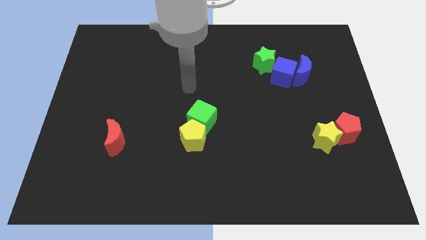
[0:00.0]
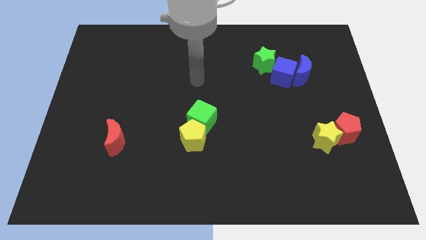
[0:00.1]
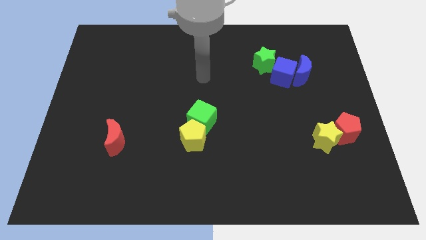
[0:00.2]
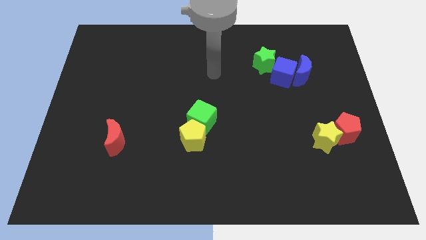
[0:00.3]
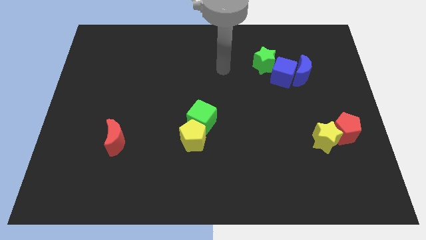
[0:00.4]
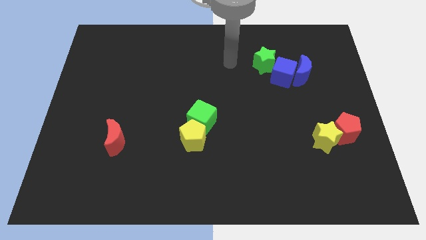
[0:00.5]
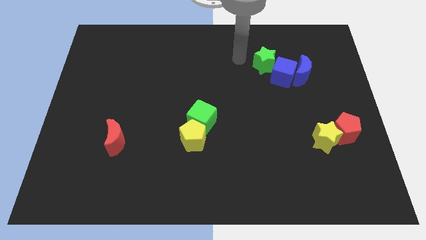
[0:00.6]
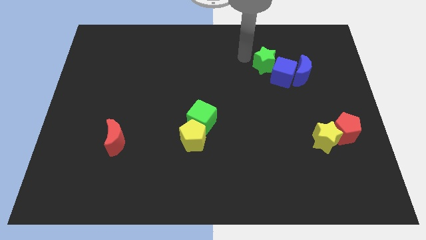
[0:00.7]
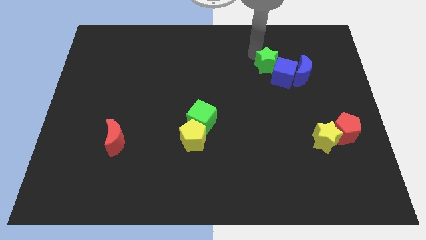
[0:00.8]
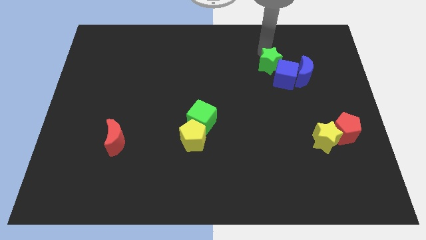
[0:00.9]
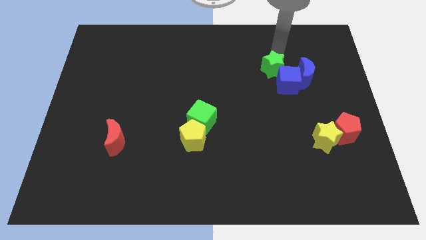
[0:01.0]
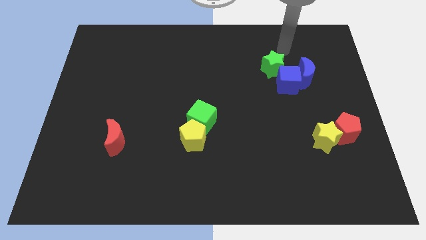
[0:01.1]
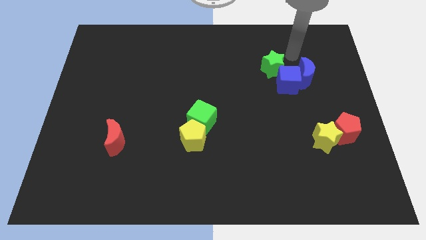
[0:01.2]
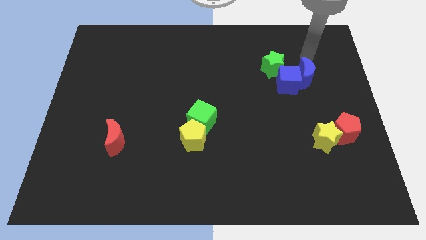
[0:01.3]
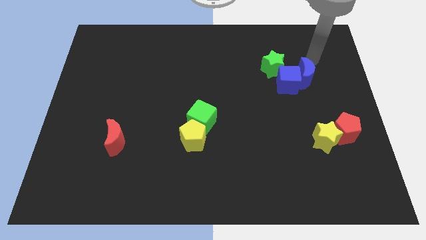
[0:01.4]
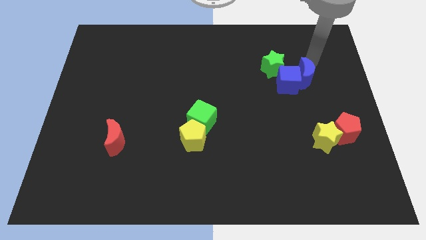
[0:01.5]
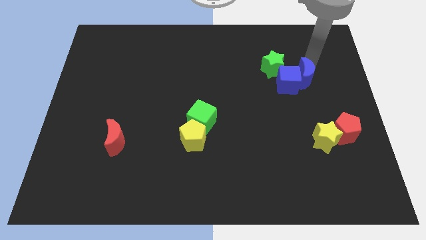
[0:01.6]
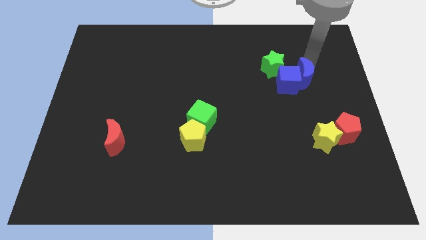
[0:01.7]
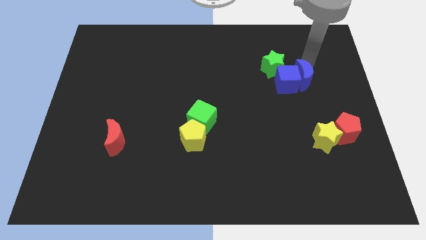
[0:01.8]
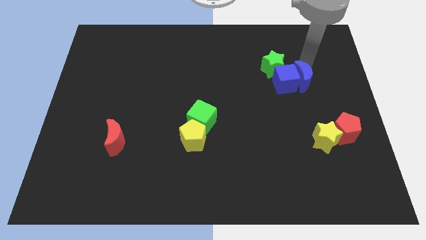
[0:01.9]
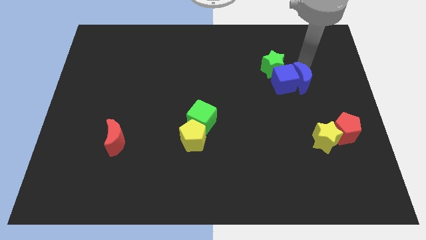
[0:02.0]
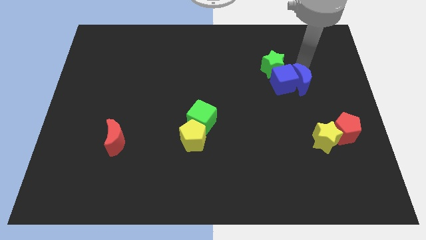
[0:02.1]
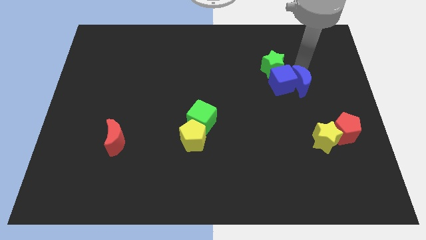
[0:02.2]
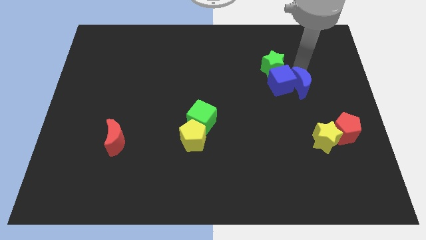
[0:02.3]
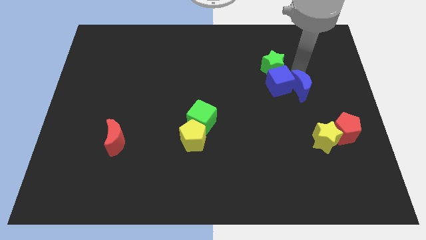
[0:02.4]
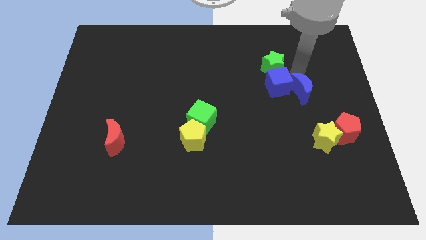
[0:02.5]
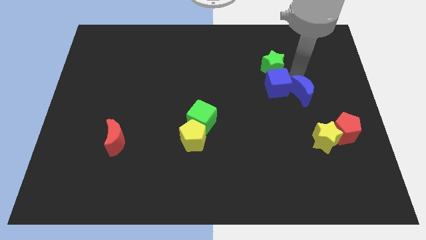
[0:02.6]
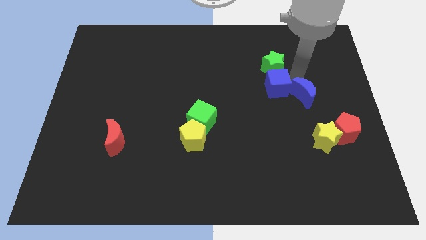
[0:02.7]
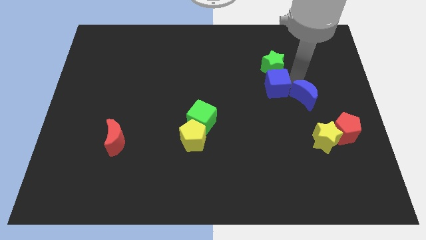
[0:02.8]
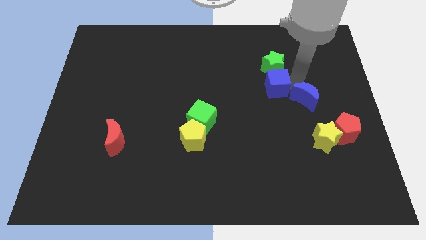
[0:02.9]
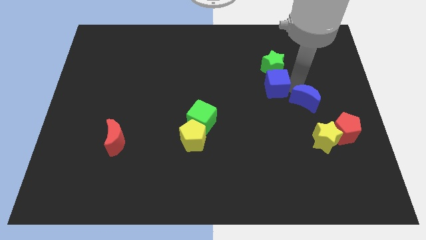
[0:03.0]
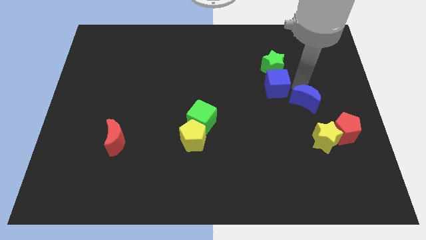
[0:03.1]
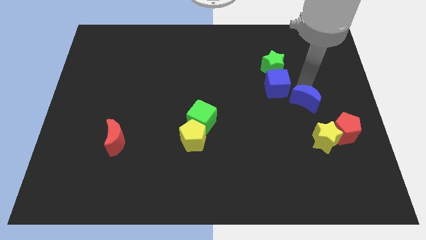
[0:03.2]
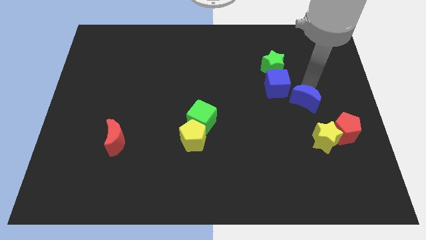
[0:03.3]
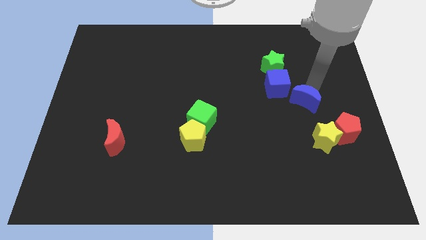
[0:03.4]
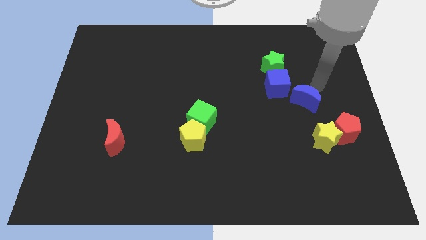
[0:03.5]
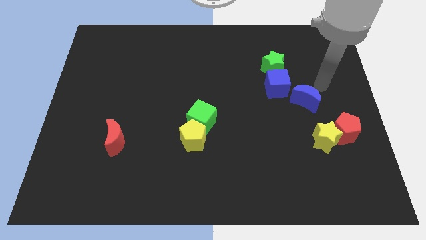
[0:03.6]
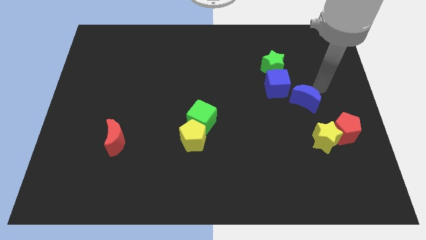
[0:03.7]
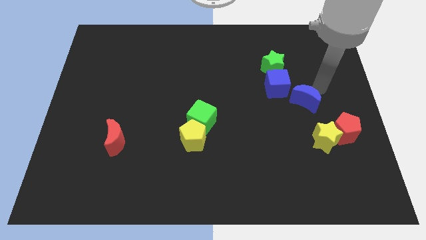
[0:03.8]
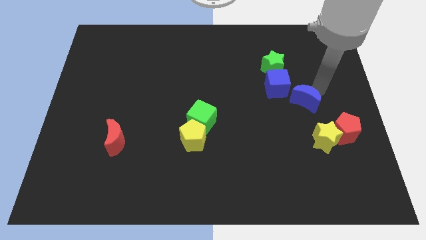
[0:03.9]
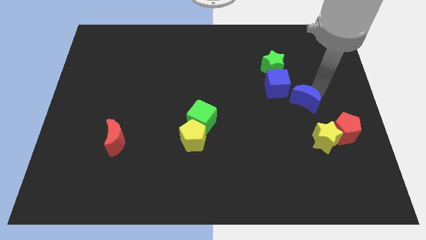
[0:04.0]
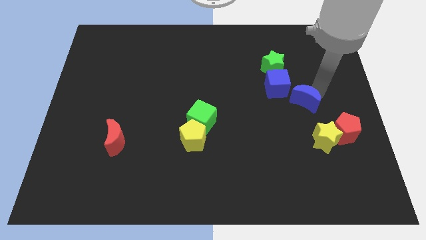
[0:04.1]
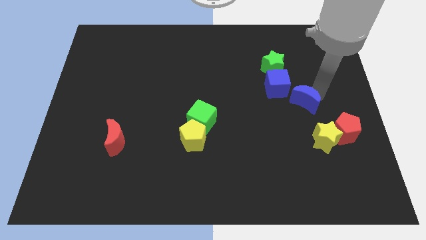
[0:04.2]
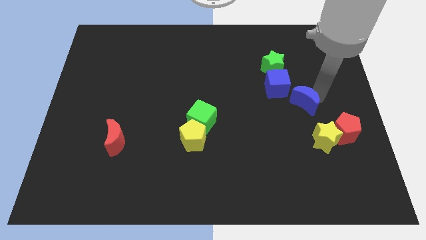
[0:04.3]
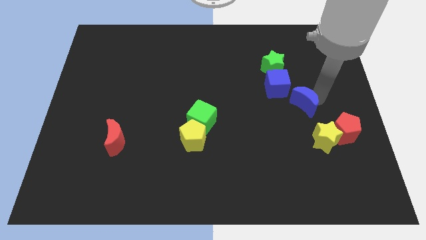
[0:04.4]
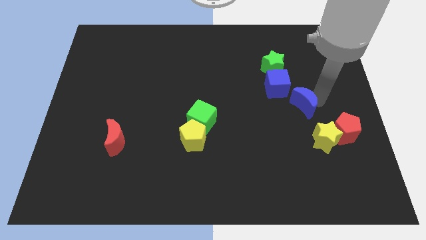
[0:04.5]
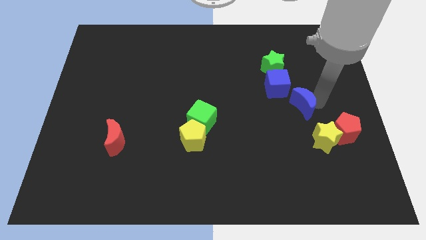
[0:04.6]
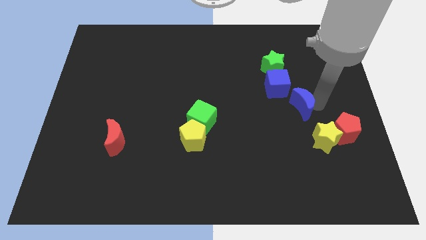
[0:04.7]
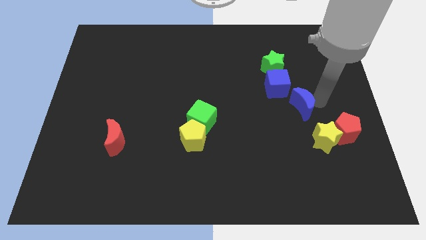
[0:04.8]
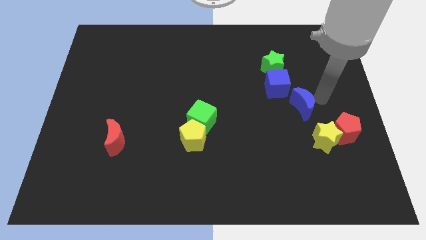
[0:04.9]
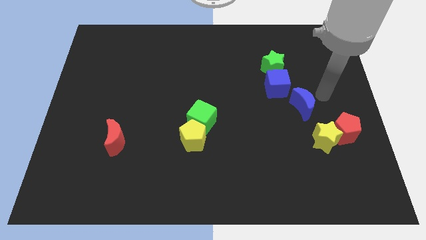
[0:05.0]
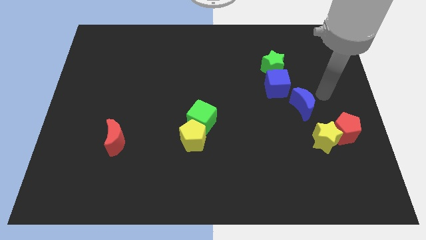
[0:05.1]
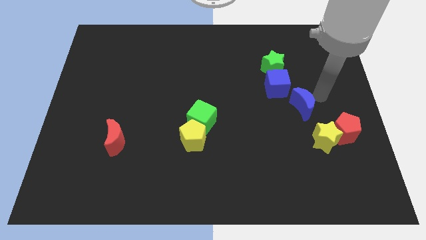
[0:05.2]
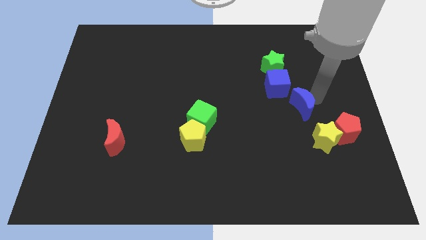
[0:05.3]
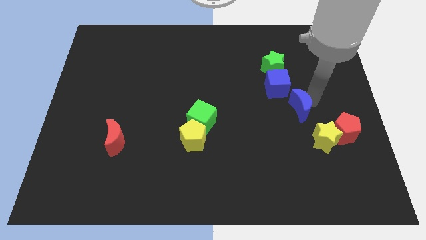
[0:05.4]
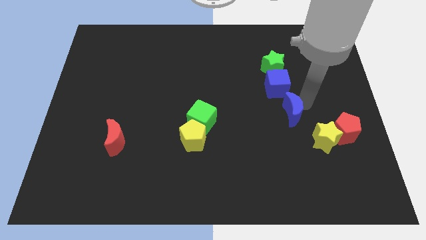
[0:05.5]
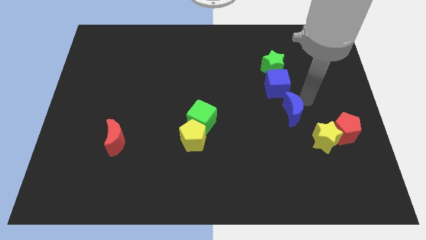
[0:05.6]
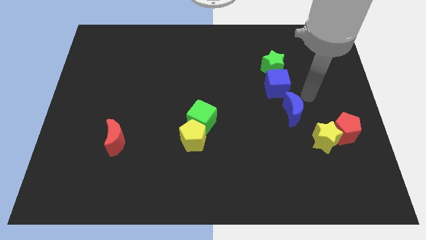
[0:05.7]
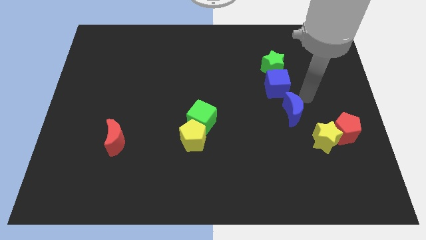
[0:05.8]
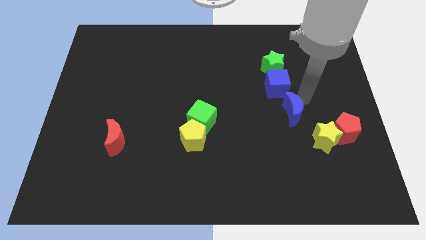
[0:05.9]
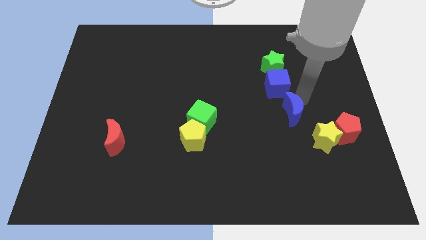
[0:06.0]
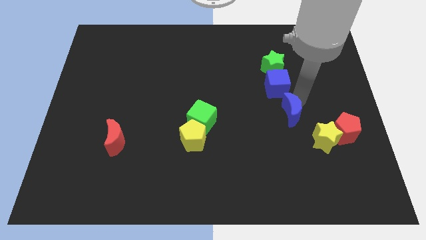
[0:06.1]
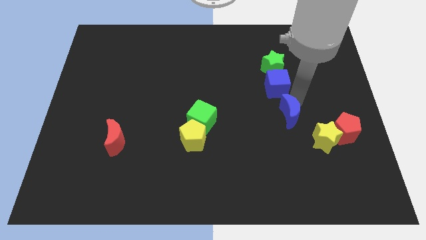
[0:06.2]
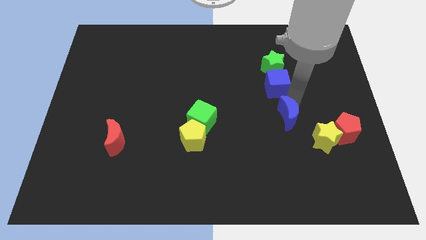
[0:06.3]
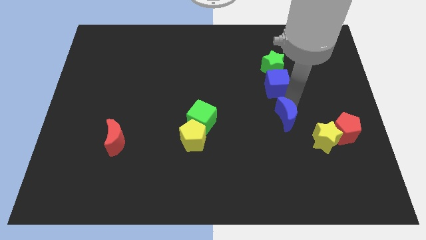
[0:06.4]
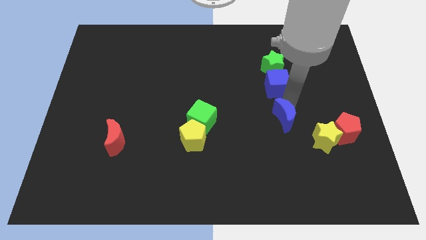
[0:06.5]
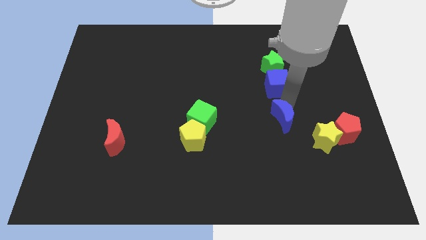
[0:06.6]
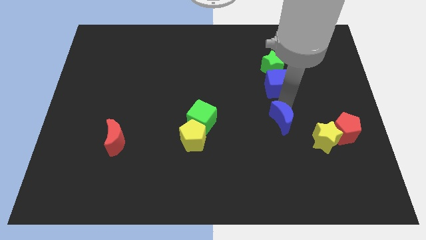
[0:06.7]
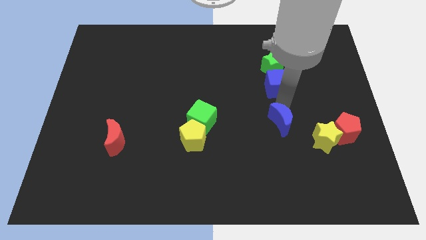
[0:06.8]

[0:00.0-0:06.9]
move the blue moon to the left of the yellow star
